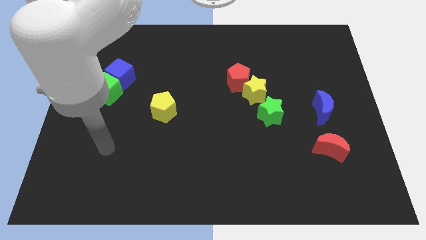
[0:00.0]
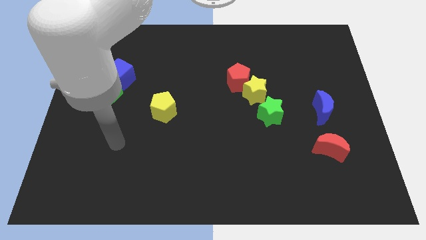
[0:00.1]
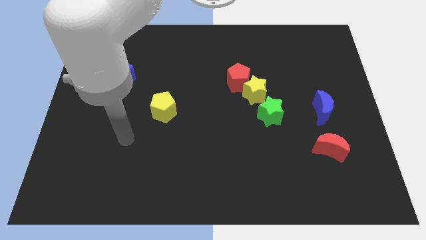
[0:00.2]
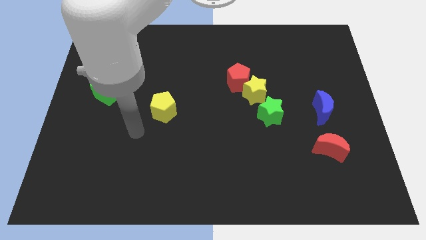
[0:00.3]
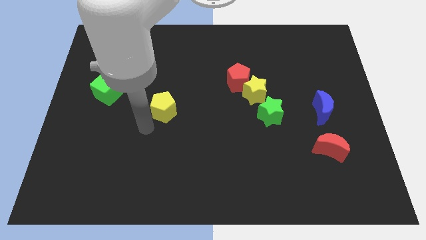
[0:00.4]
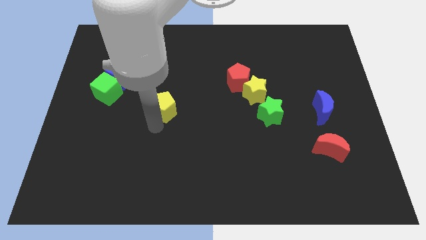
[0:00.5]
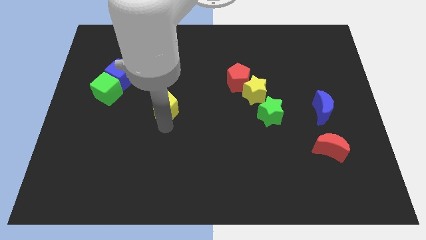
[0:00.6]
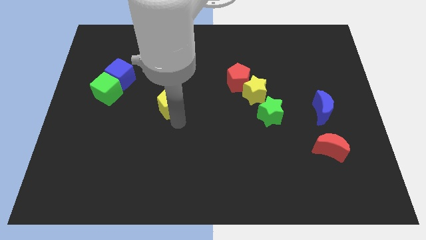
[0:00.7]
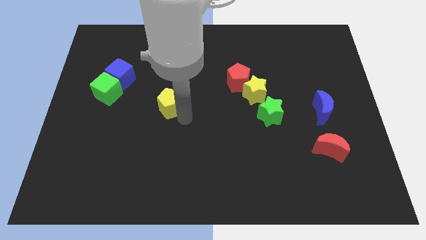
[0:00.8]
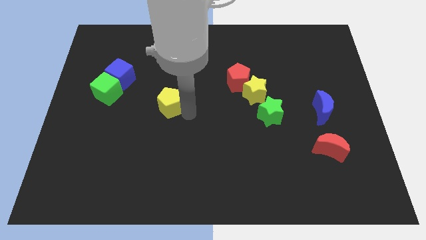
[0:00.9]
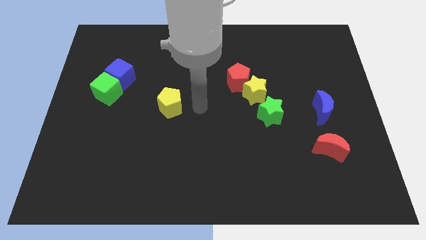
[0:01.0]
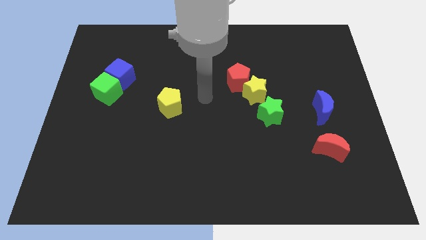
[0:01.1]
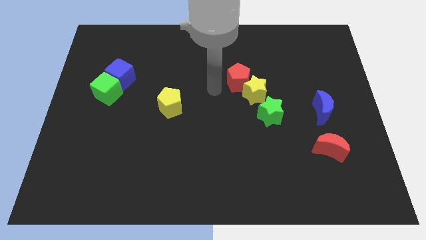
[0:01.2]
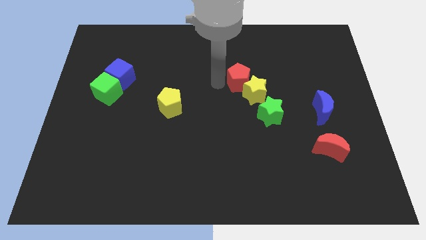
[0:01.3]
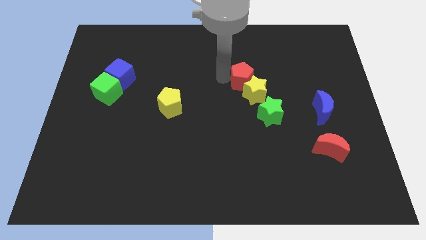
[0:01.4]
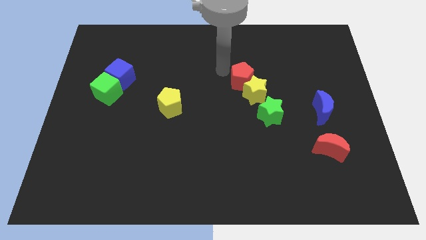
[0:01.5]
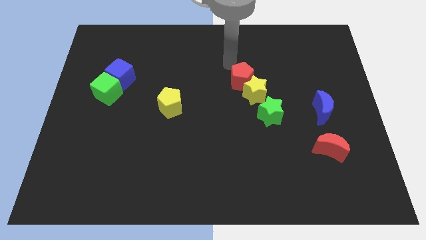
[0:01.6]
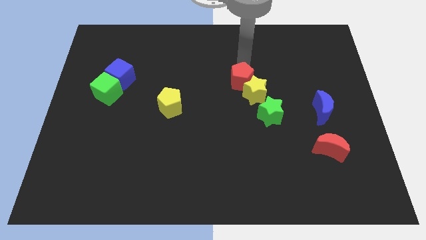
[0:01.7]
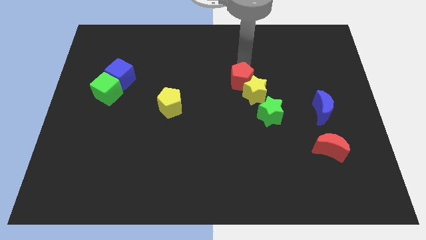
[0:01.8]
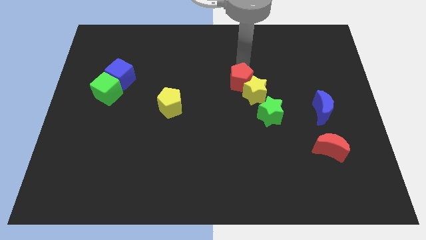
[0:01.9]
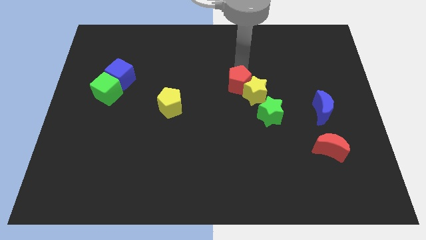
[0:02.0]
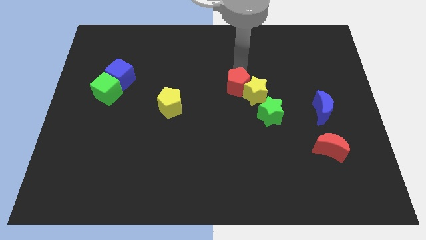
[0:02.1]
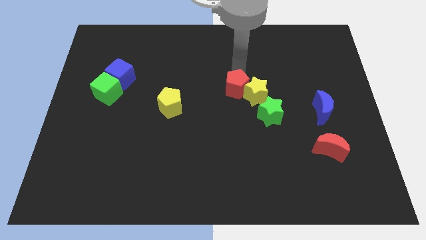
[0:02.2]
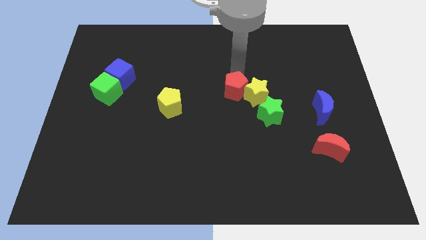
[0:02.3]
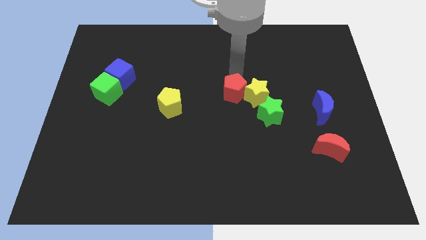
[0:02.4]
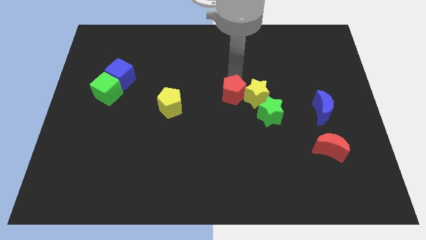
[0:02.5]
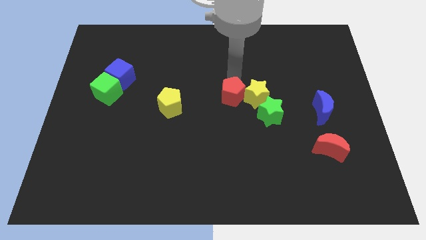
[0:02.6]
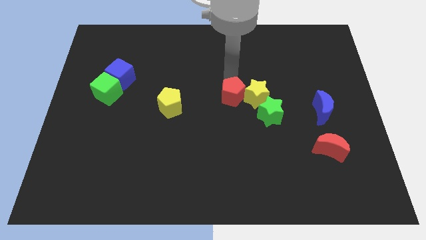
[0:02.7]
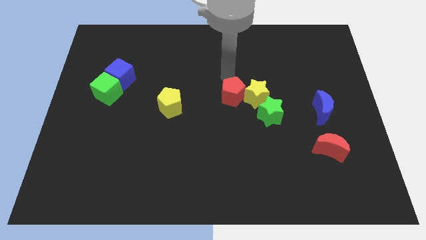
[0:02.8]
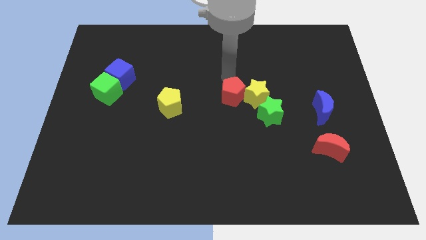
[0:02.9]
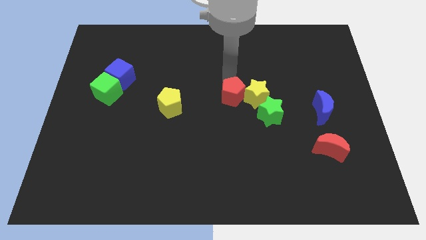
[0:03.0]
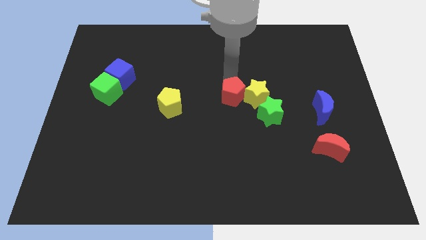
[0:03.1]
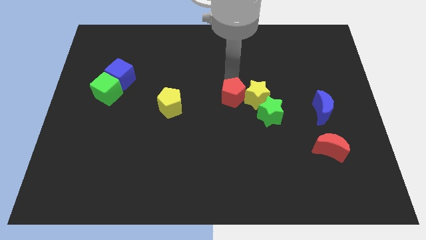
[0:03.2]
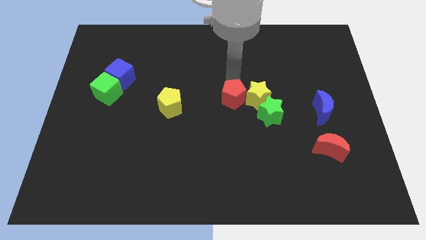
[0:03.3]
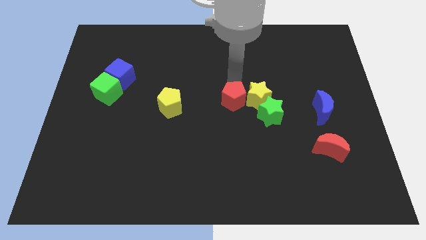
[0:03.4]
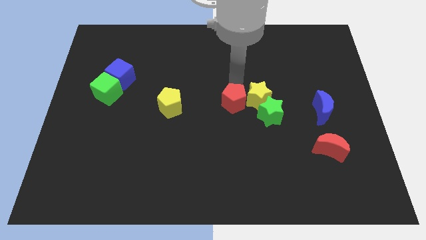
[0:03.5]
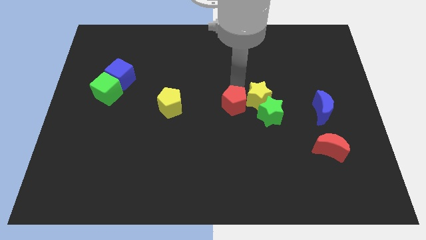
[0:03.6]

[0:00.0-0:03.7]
slide the red pentagon a little bit down

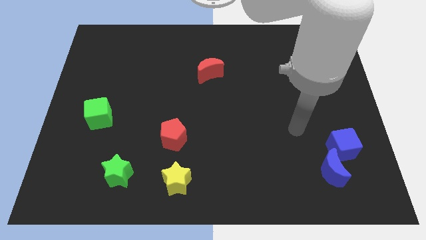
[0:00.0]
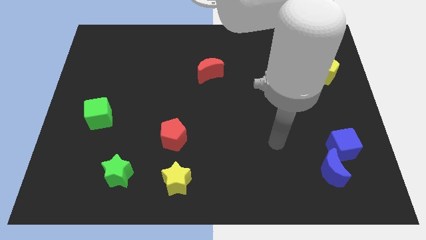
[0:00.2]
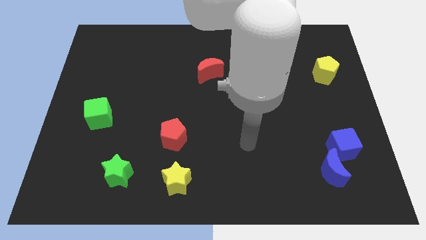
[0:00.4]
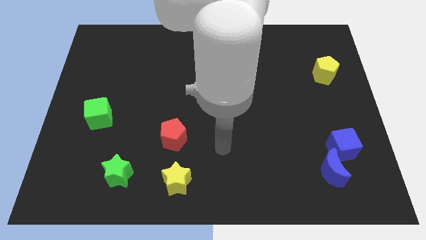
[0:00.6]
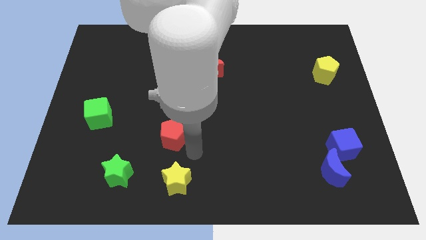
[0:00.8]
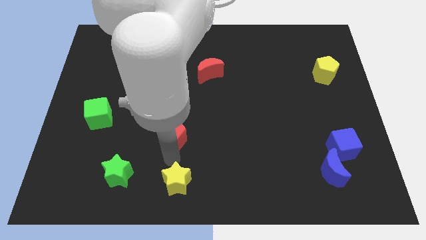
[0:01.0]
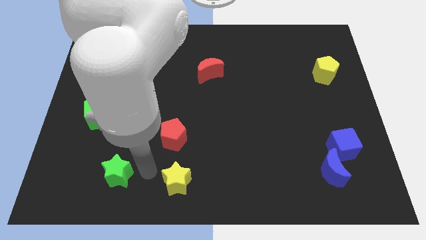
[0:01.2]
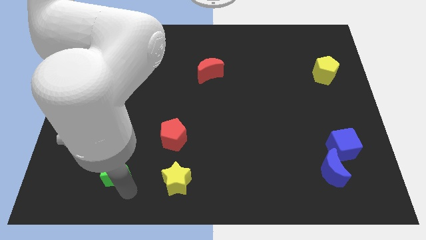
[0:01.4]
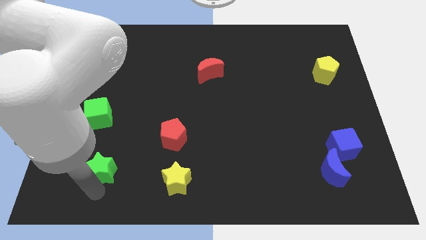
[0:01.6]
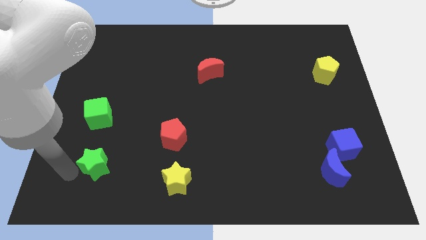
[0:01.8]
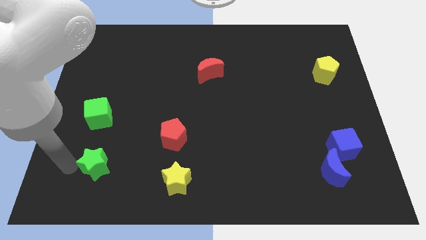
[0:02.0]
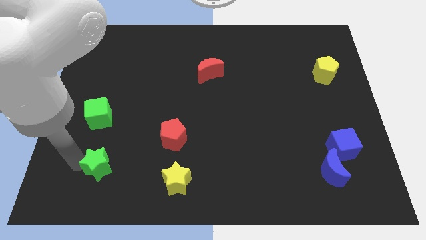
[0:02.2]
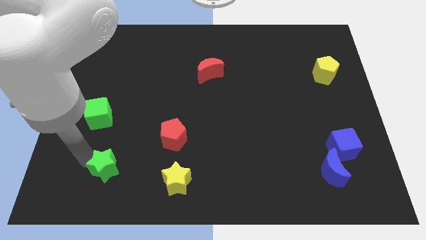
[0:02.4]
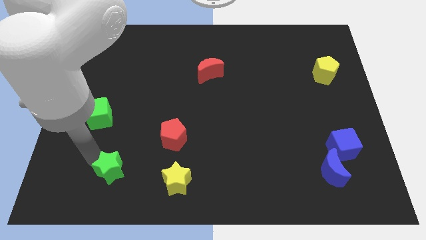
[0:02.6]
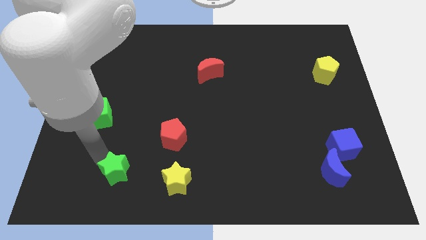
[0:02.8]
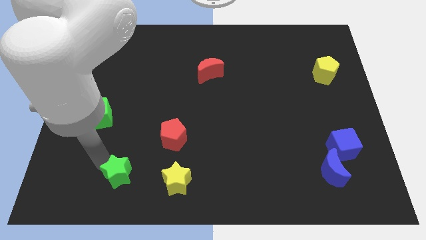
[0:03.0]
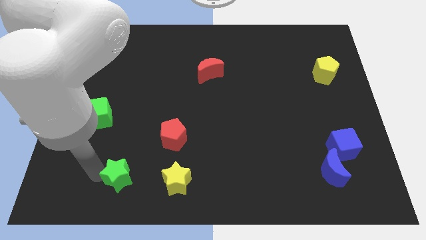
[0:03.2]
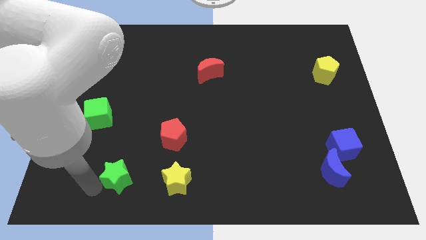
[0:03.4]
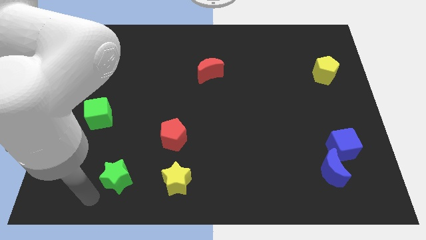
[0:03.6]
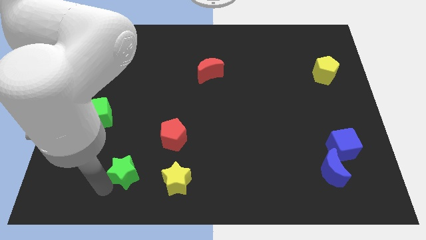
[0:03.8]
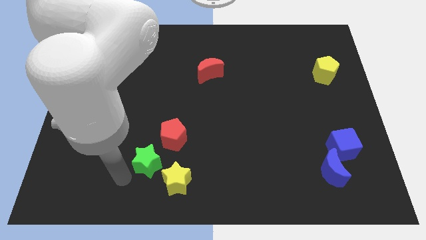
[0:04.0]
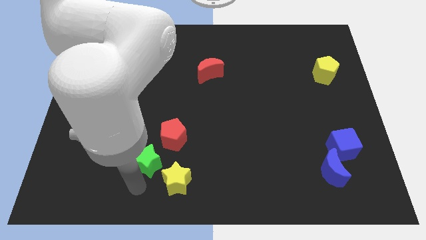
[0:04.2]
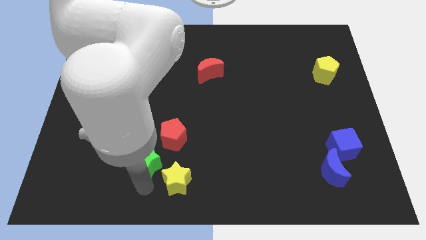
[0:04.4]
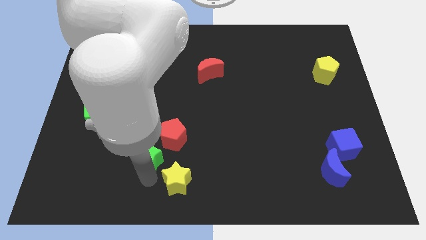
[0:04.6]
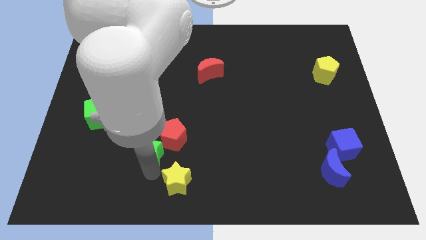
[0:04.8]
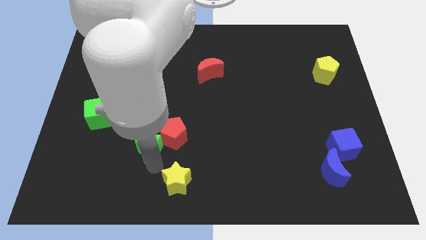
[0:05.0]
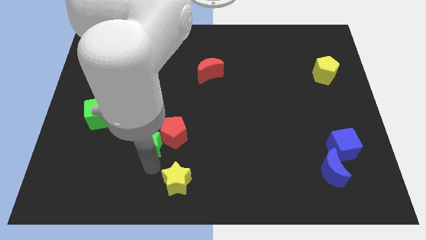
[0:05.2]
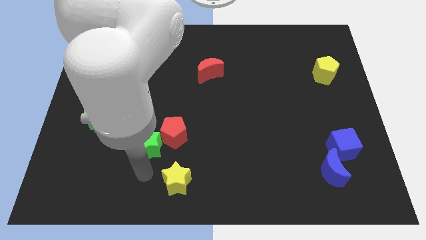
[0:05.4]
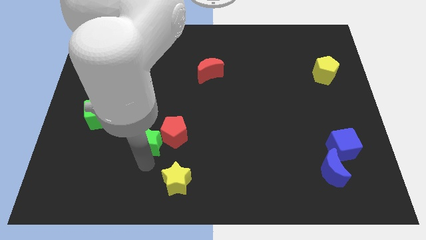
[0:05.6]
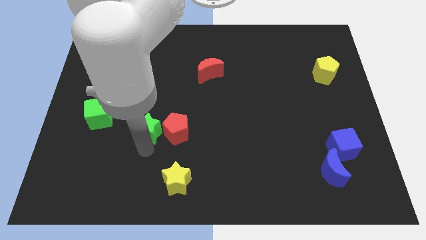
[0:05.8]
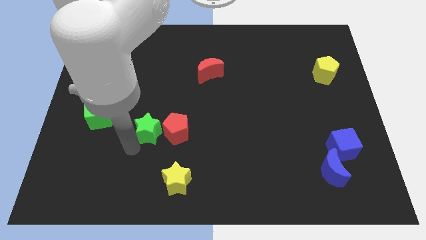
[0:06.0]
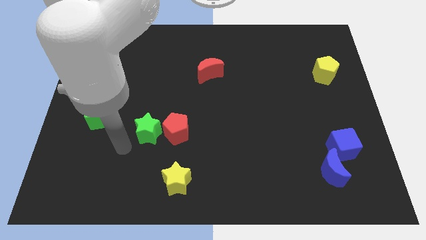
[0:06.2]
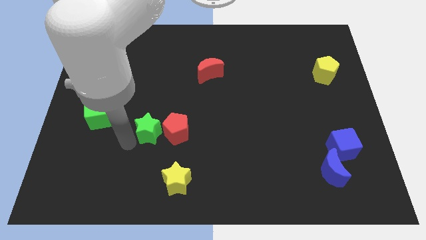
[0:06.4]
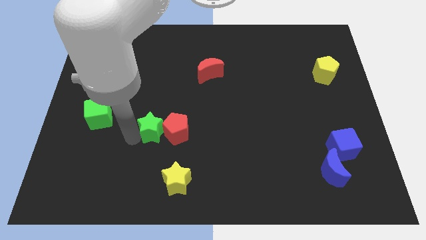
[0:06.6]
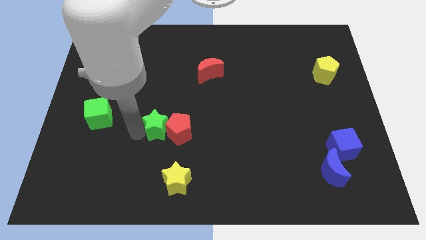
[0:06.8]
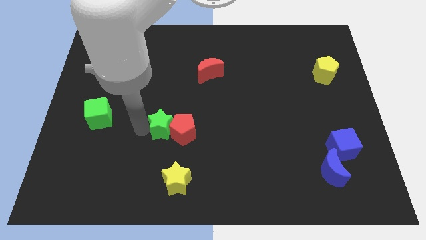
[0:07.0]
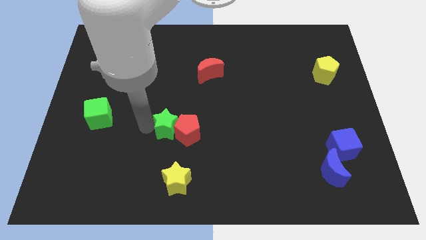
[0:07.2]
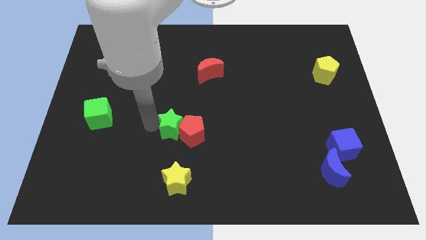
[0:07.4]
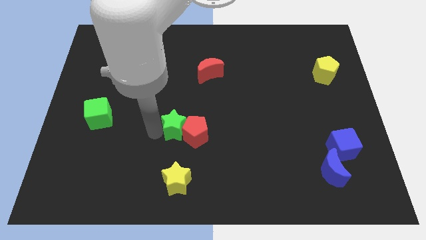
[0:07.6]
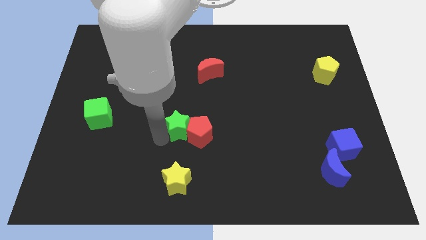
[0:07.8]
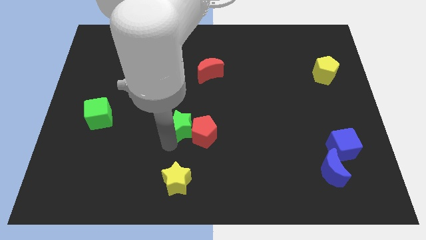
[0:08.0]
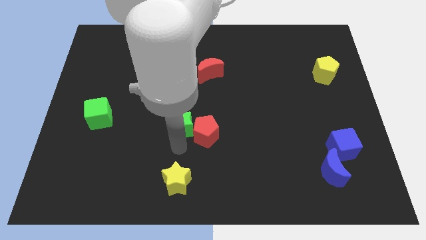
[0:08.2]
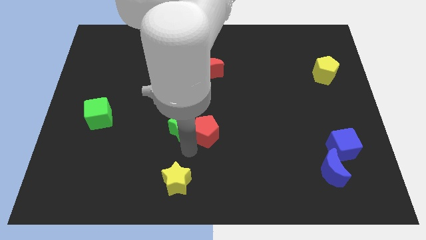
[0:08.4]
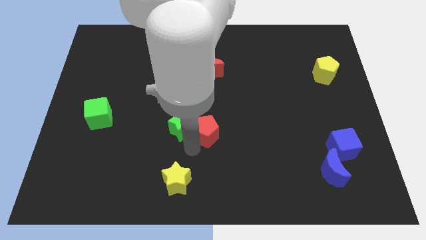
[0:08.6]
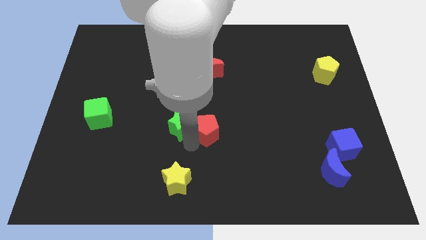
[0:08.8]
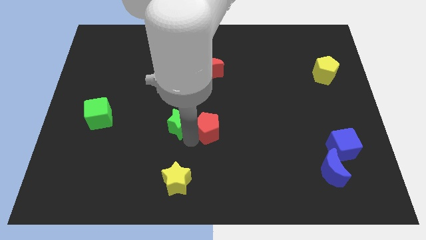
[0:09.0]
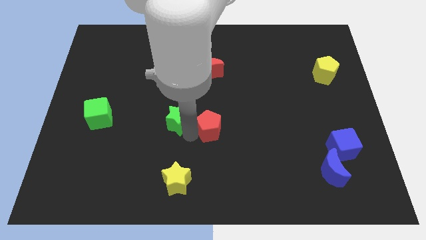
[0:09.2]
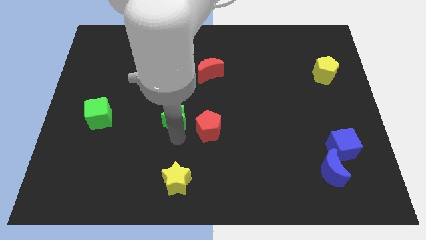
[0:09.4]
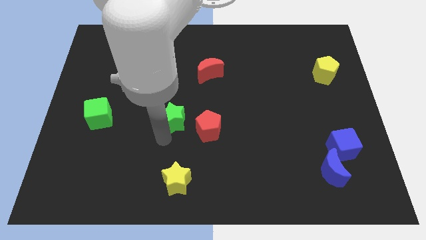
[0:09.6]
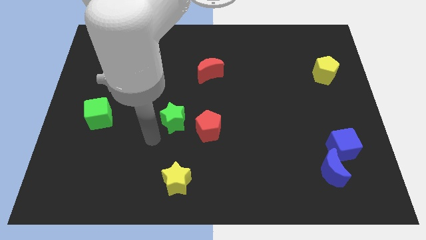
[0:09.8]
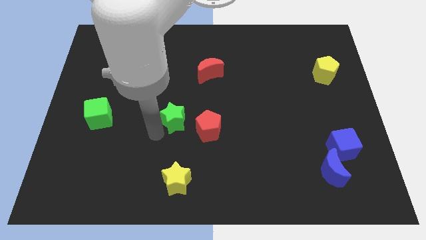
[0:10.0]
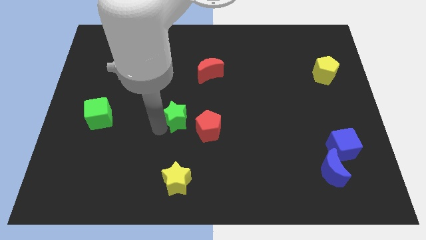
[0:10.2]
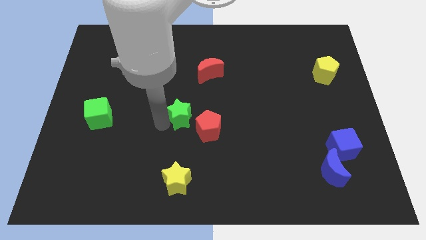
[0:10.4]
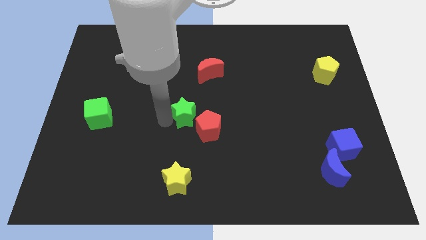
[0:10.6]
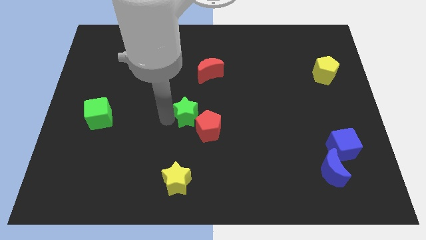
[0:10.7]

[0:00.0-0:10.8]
slide the green star upwards and right
